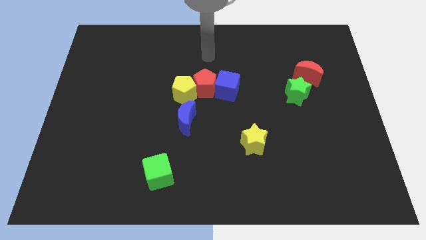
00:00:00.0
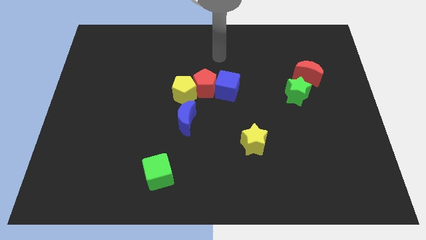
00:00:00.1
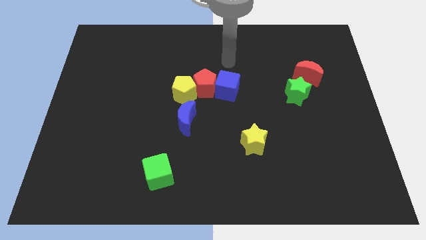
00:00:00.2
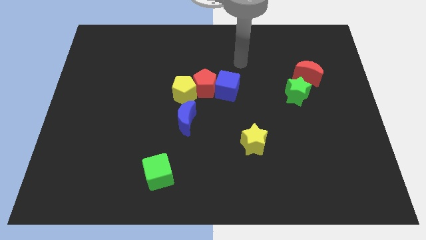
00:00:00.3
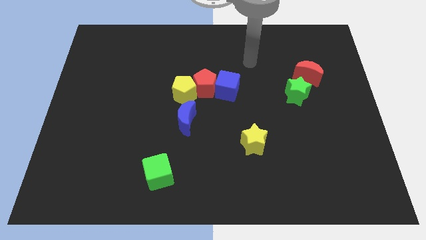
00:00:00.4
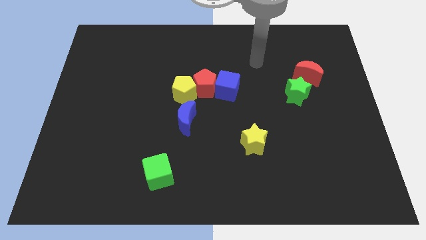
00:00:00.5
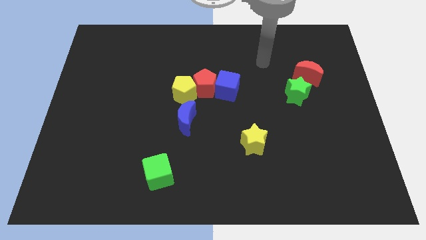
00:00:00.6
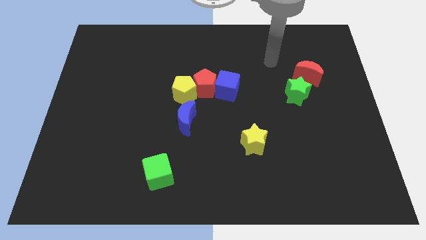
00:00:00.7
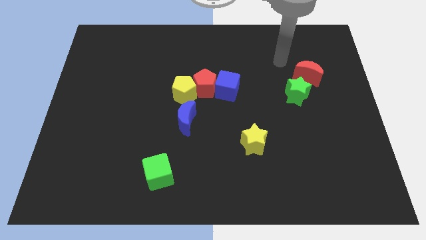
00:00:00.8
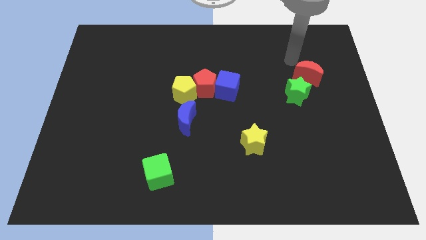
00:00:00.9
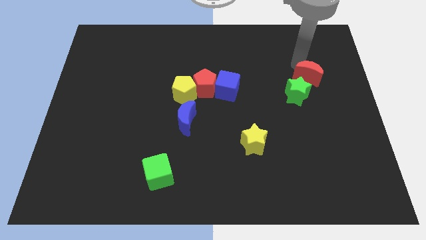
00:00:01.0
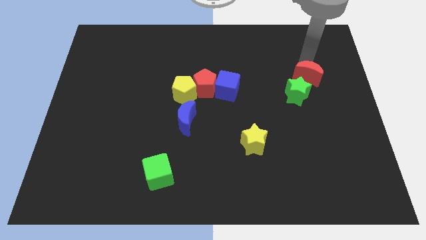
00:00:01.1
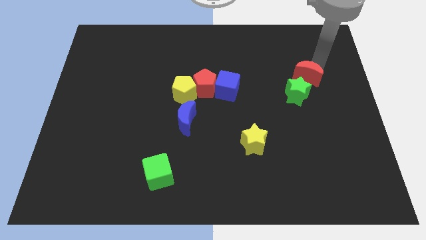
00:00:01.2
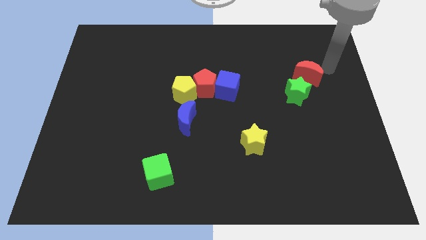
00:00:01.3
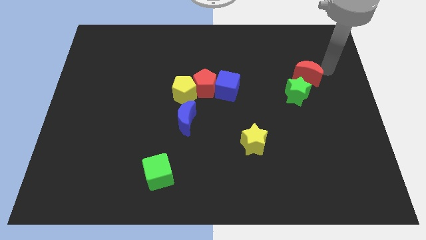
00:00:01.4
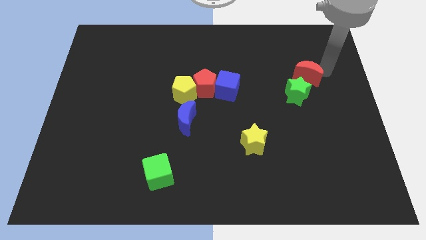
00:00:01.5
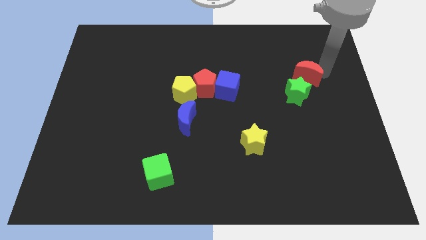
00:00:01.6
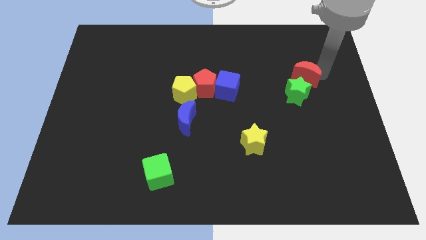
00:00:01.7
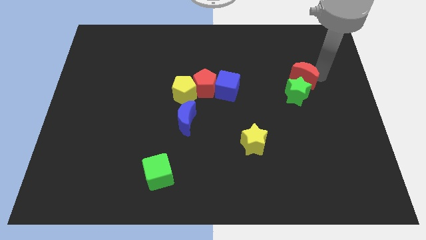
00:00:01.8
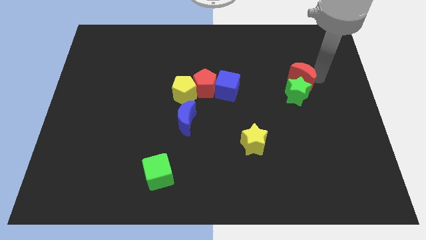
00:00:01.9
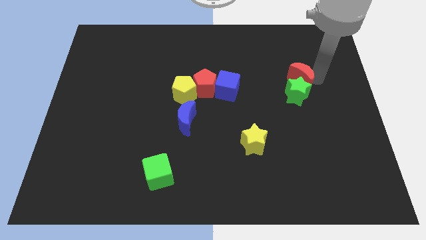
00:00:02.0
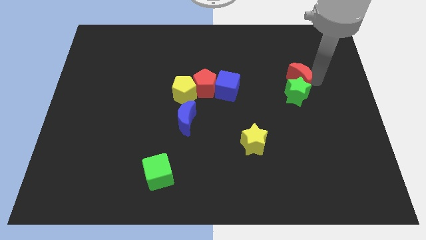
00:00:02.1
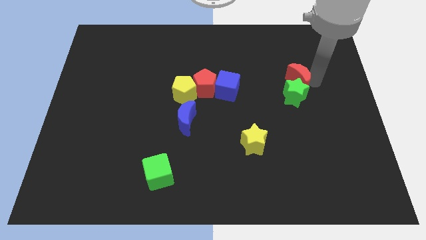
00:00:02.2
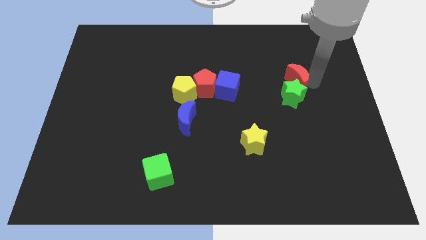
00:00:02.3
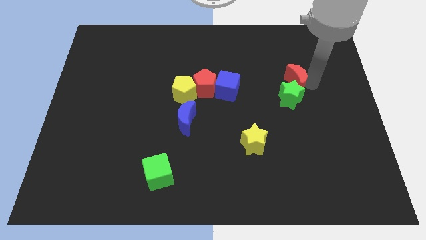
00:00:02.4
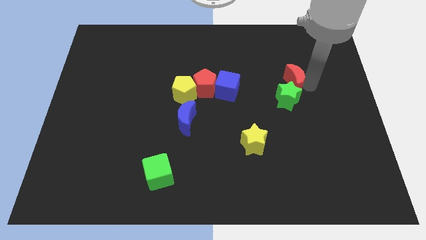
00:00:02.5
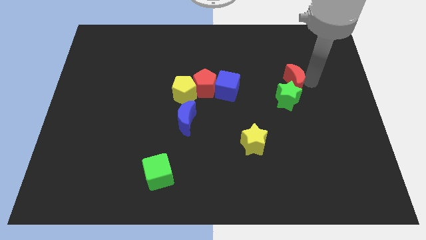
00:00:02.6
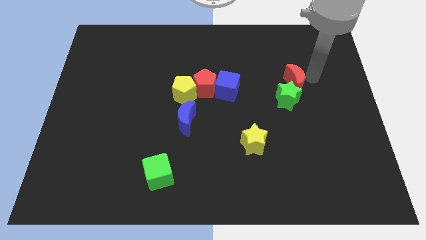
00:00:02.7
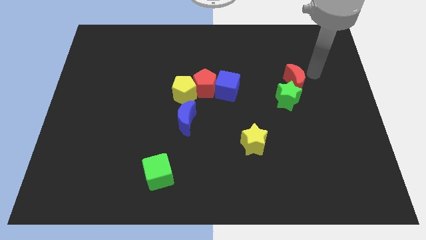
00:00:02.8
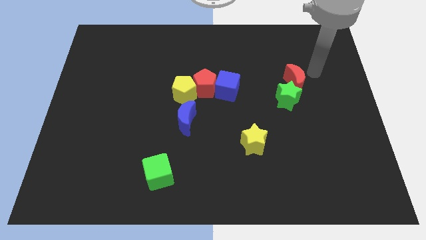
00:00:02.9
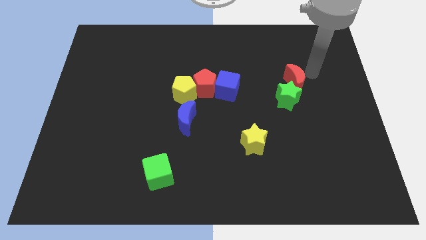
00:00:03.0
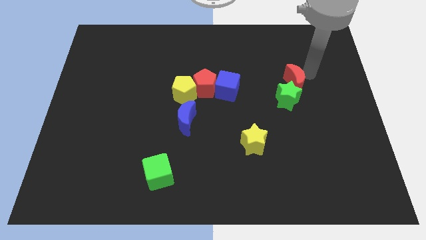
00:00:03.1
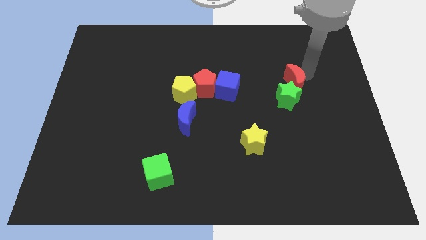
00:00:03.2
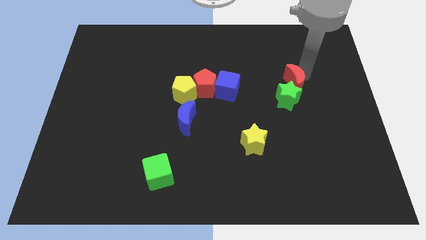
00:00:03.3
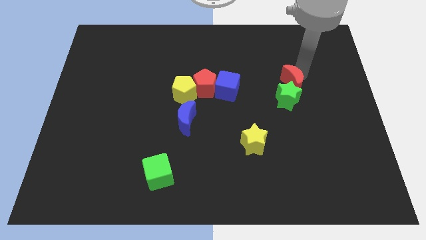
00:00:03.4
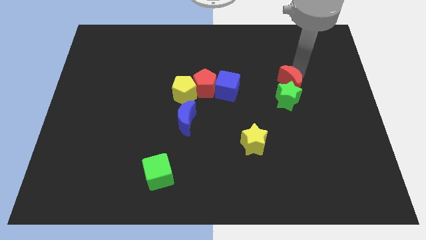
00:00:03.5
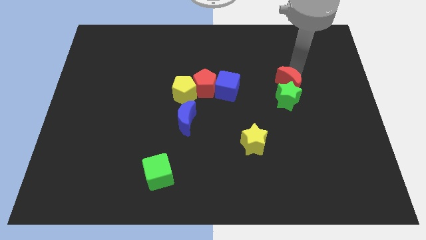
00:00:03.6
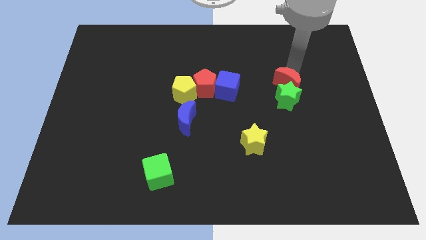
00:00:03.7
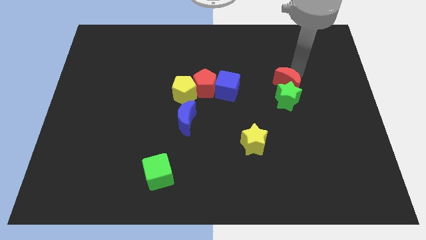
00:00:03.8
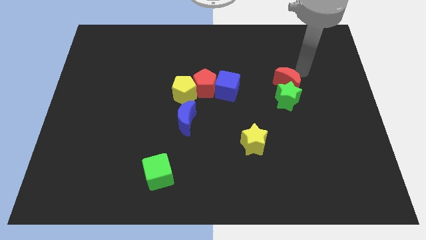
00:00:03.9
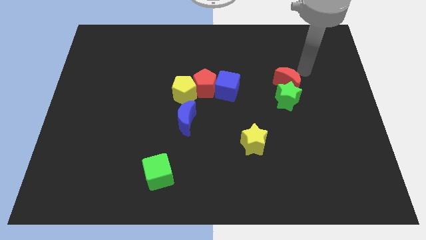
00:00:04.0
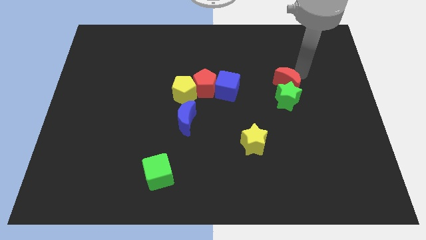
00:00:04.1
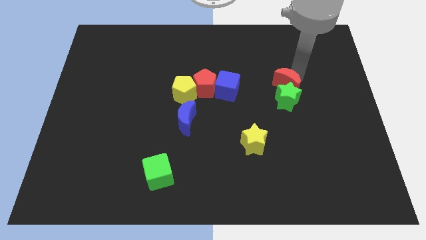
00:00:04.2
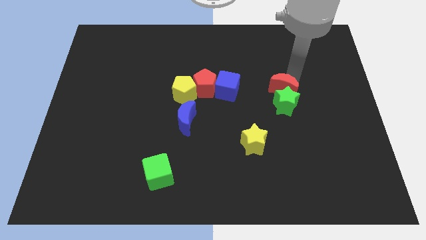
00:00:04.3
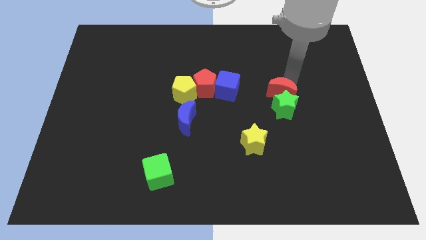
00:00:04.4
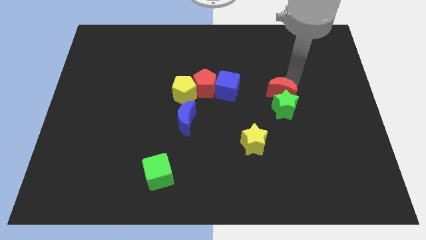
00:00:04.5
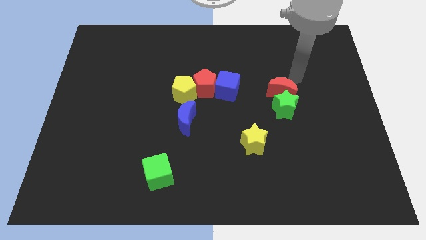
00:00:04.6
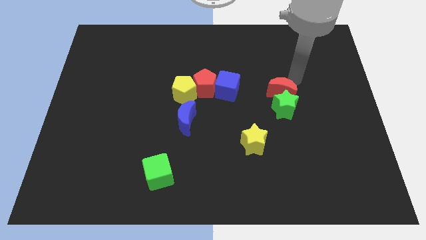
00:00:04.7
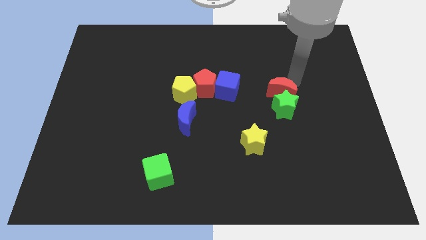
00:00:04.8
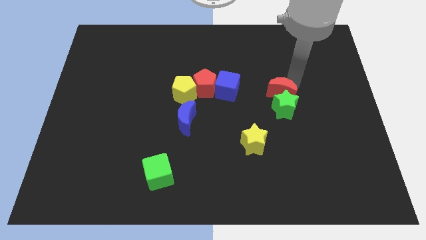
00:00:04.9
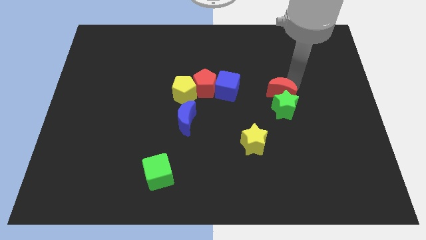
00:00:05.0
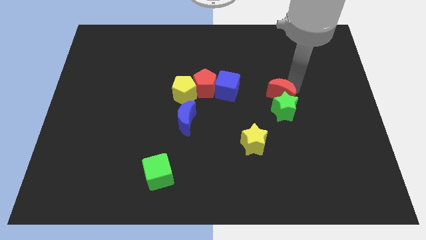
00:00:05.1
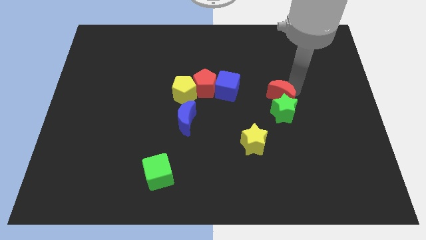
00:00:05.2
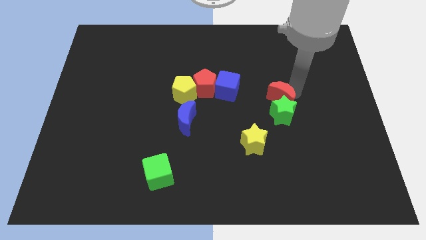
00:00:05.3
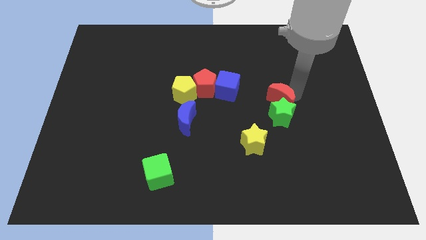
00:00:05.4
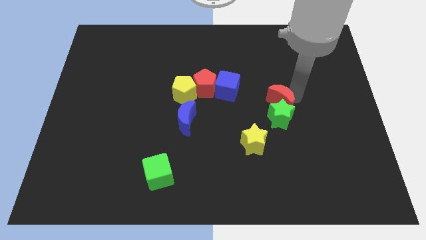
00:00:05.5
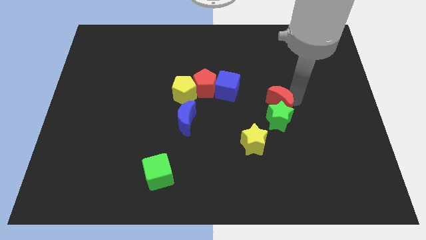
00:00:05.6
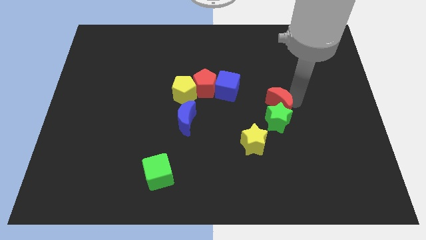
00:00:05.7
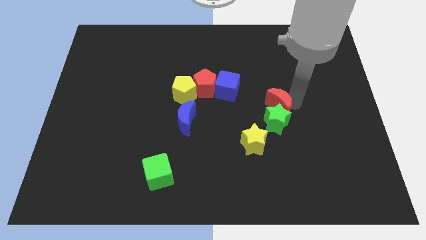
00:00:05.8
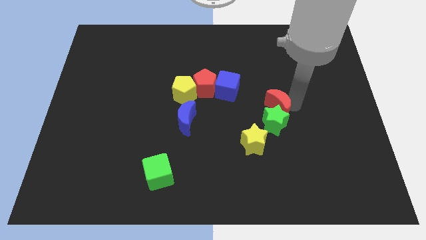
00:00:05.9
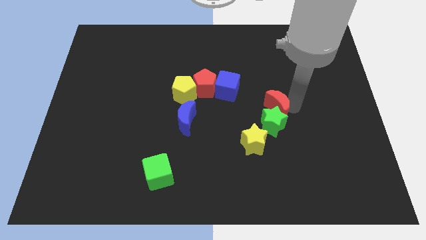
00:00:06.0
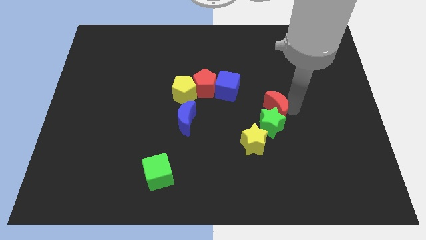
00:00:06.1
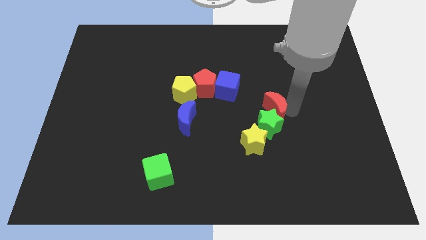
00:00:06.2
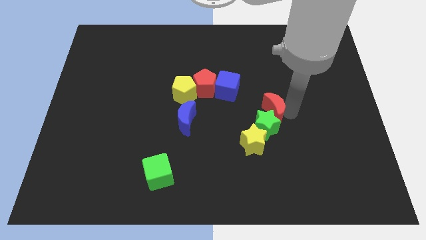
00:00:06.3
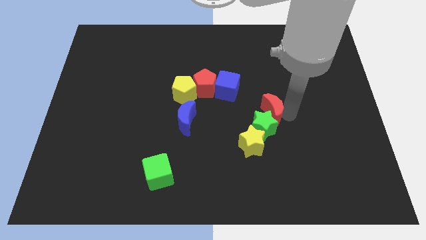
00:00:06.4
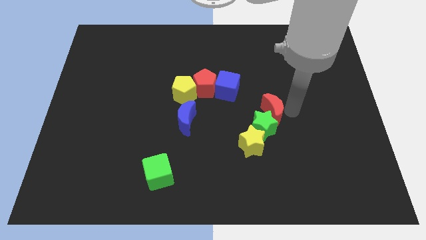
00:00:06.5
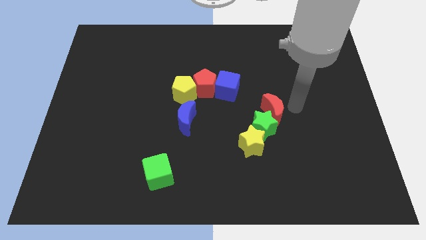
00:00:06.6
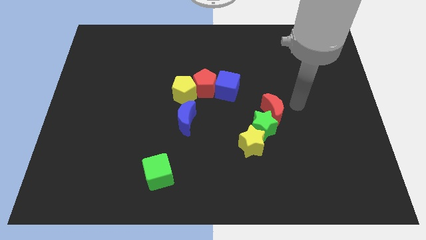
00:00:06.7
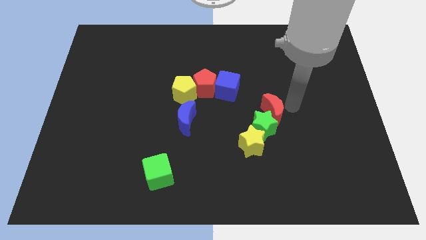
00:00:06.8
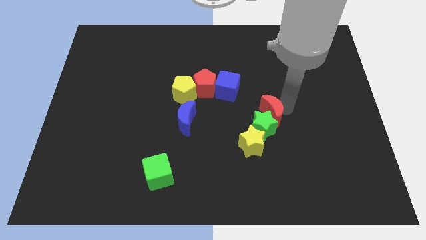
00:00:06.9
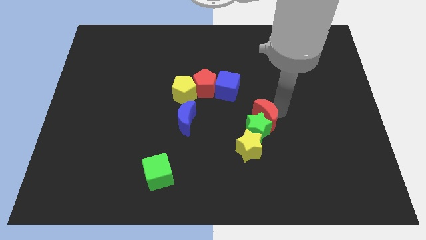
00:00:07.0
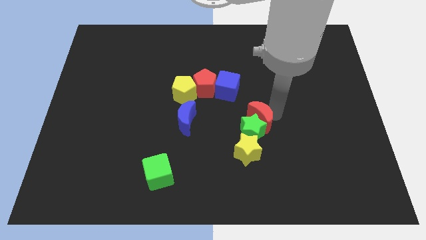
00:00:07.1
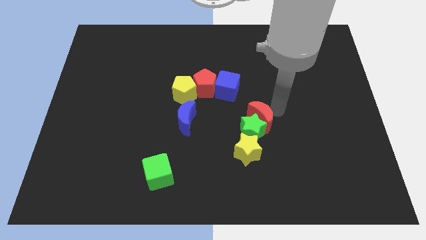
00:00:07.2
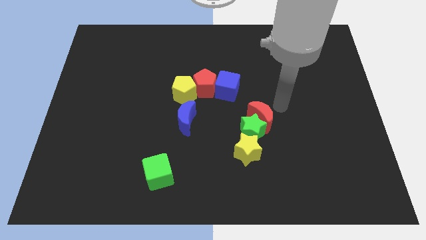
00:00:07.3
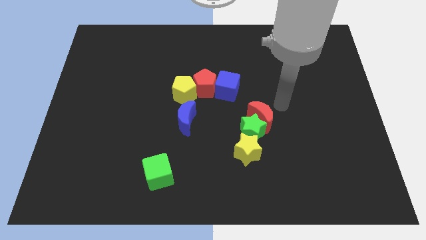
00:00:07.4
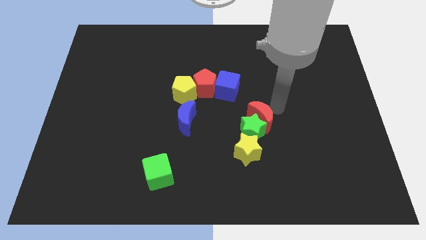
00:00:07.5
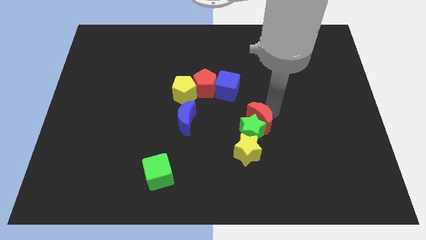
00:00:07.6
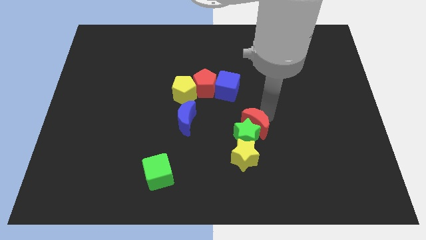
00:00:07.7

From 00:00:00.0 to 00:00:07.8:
move the red moon downwards and then left

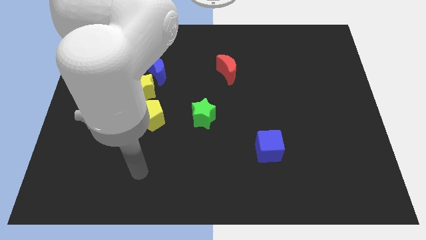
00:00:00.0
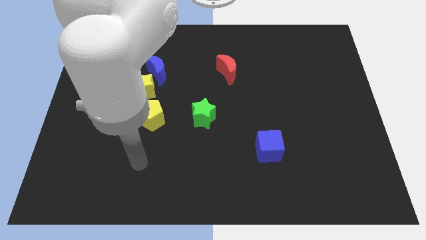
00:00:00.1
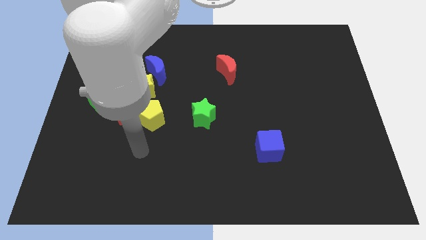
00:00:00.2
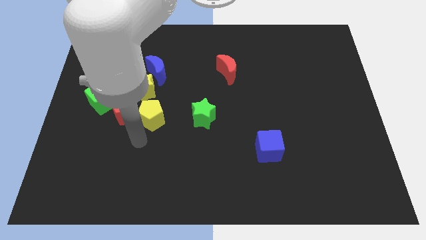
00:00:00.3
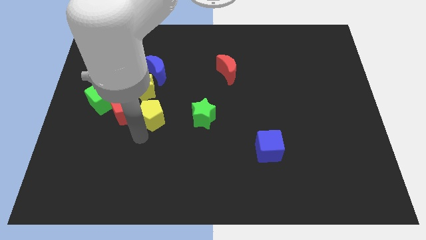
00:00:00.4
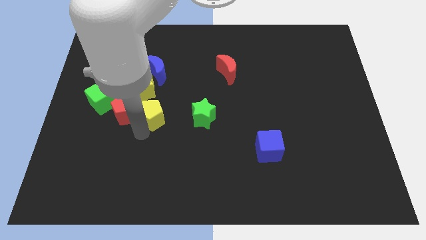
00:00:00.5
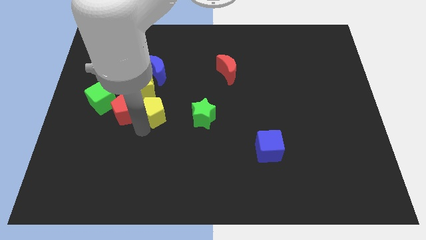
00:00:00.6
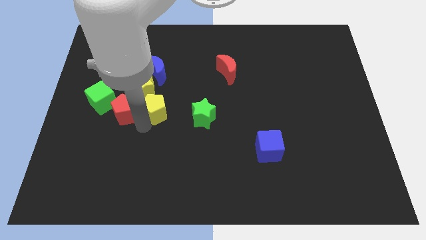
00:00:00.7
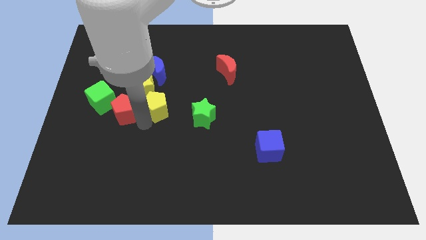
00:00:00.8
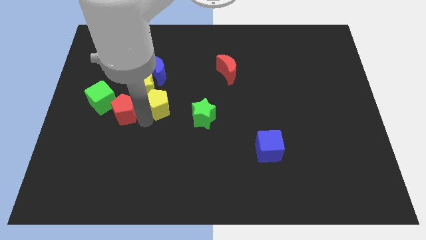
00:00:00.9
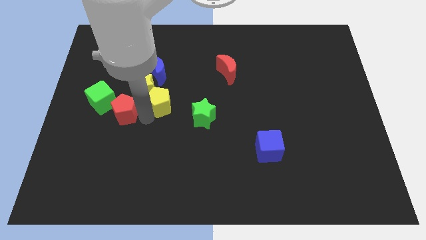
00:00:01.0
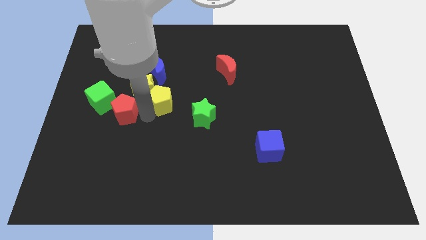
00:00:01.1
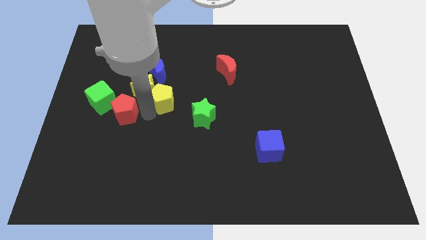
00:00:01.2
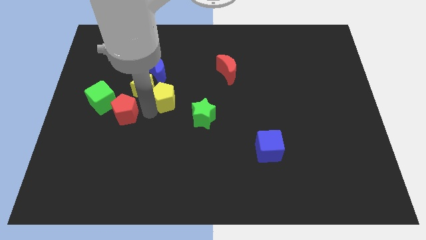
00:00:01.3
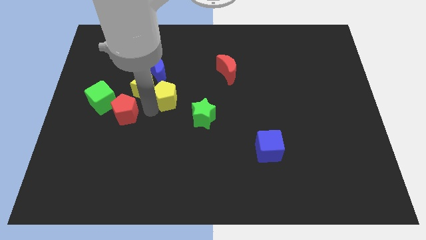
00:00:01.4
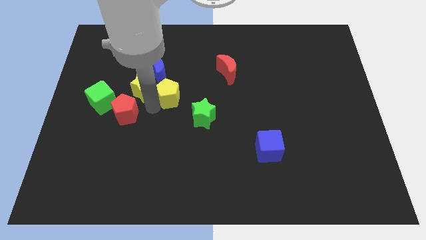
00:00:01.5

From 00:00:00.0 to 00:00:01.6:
slightly push the yellow pentagon up and then right
